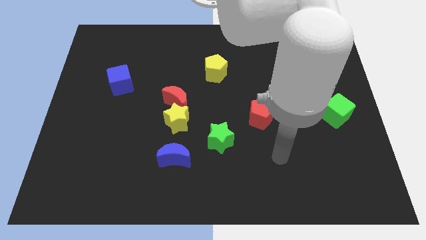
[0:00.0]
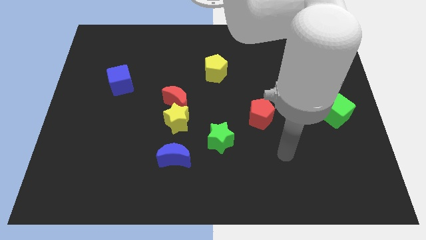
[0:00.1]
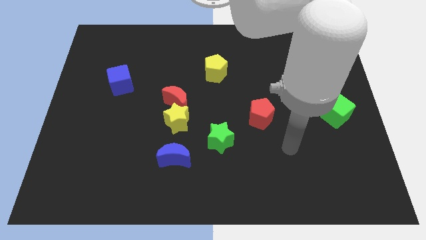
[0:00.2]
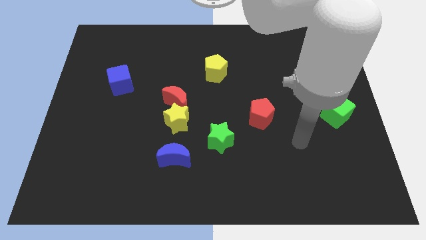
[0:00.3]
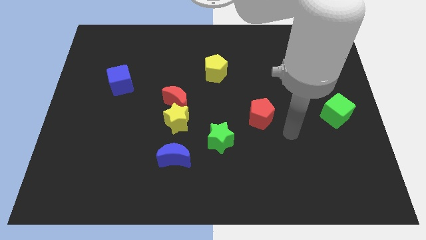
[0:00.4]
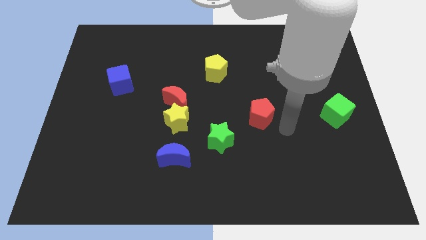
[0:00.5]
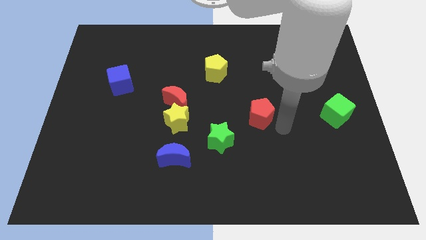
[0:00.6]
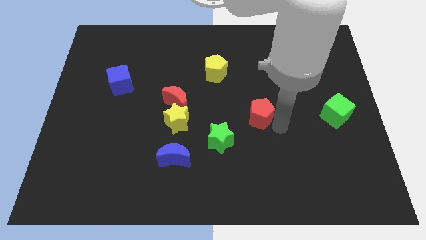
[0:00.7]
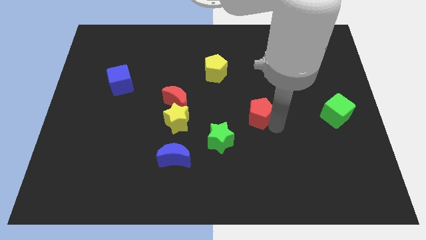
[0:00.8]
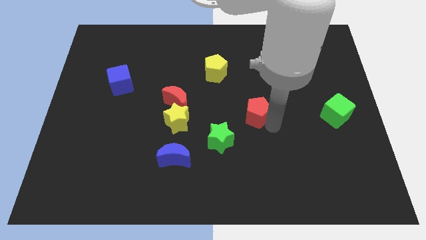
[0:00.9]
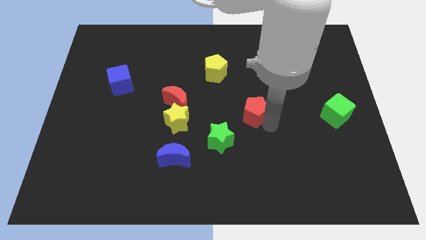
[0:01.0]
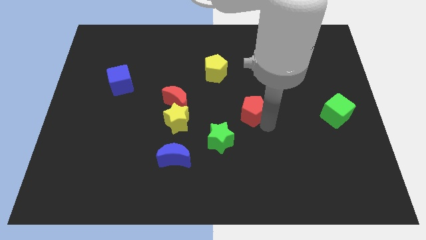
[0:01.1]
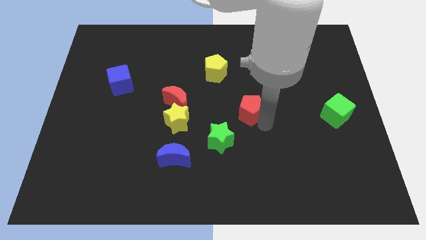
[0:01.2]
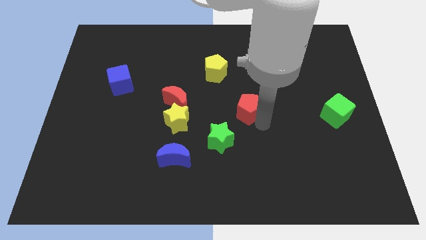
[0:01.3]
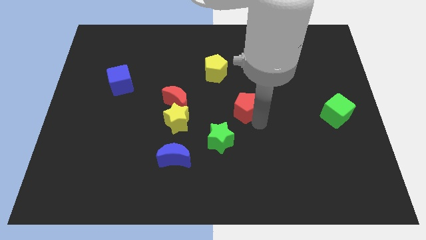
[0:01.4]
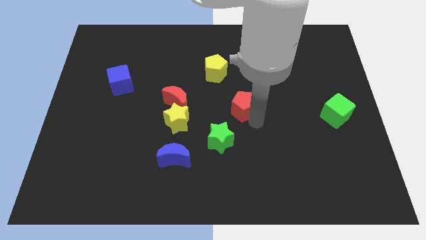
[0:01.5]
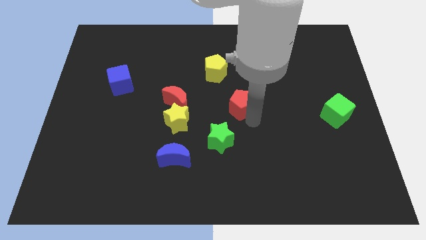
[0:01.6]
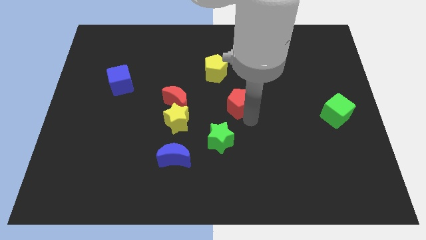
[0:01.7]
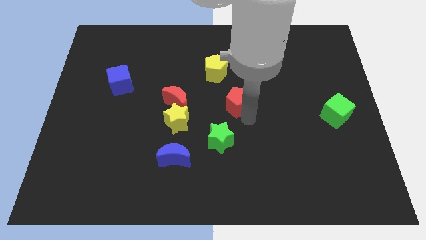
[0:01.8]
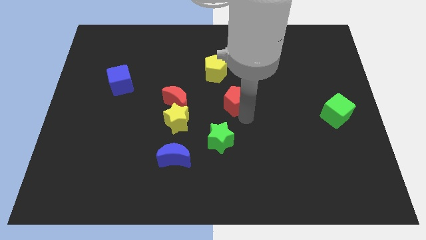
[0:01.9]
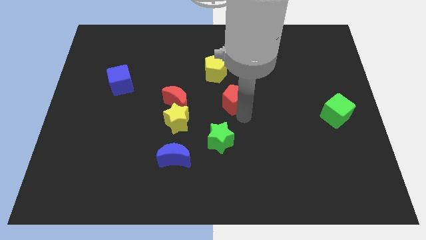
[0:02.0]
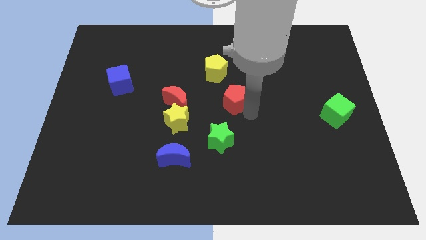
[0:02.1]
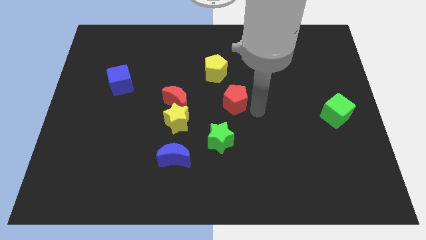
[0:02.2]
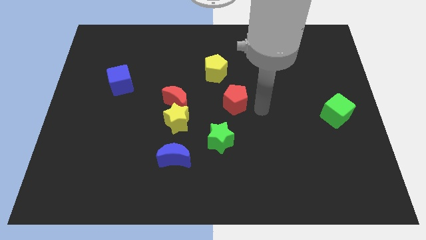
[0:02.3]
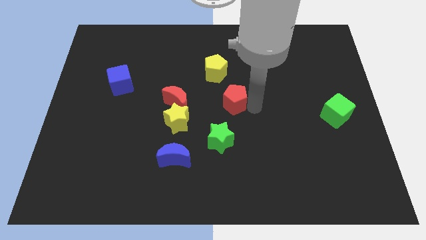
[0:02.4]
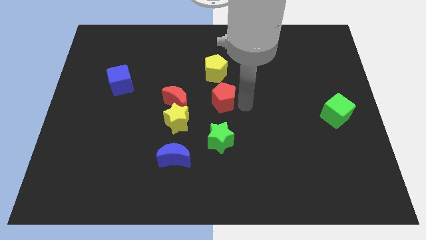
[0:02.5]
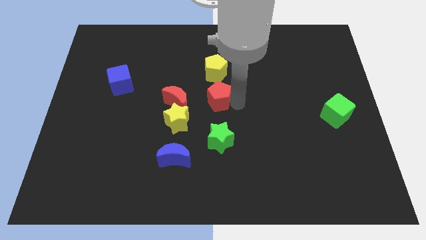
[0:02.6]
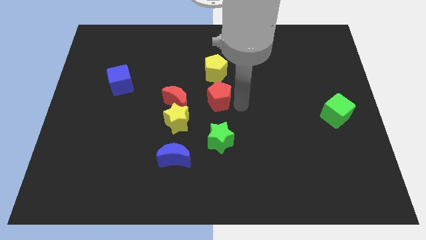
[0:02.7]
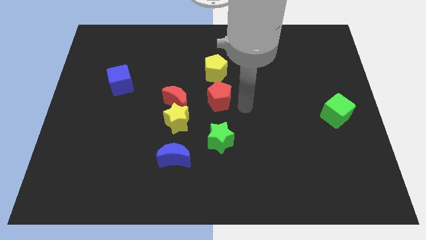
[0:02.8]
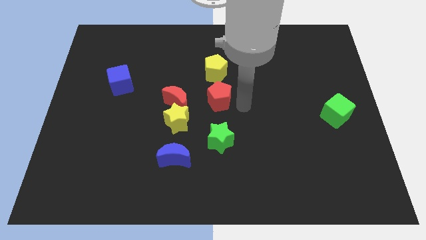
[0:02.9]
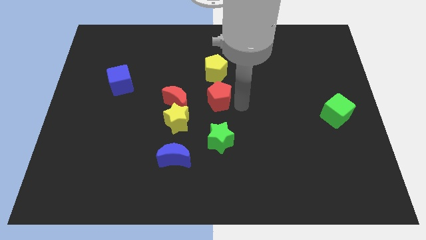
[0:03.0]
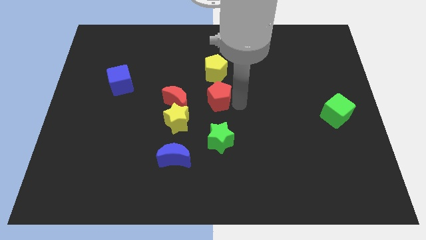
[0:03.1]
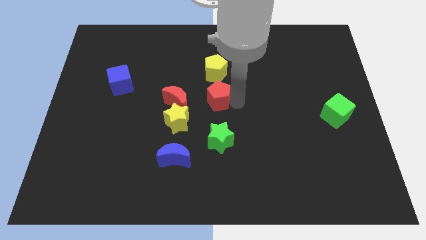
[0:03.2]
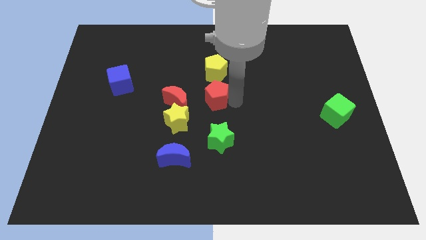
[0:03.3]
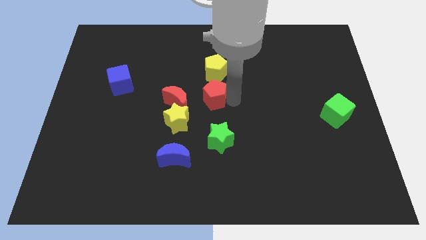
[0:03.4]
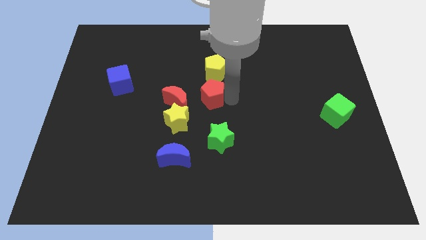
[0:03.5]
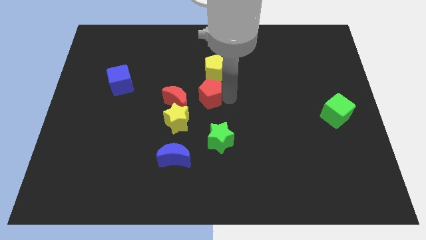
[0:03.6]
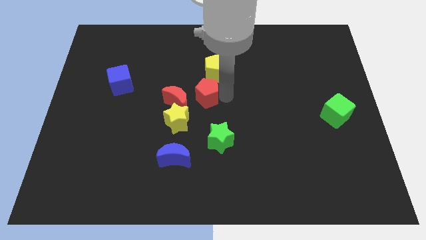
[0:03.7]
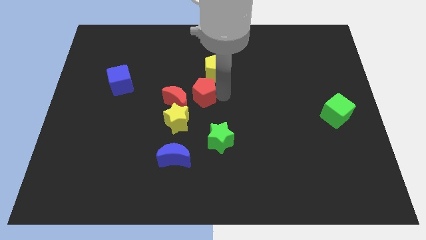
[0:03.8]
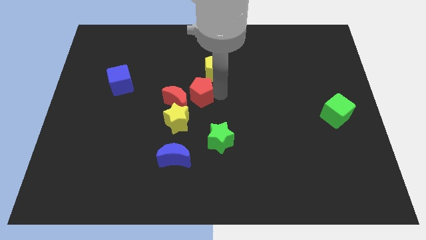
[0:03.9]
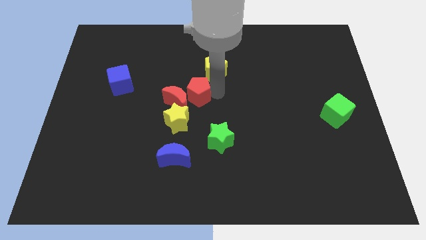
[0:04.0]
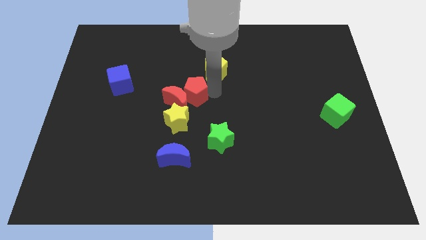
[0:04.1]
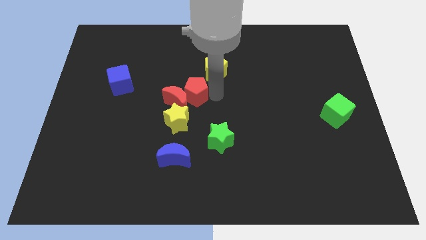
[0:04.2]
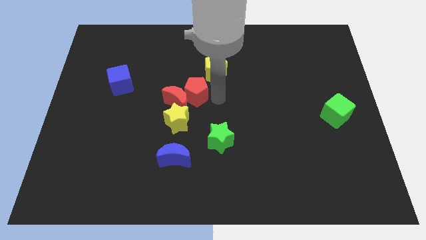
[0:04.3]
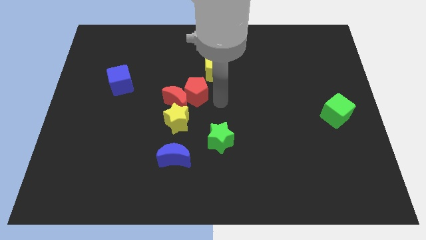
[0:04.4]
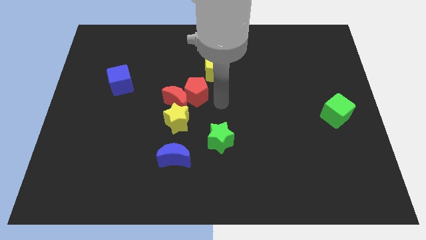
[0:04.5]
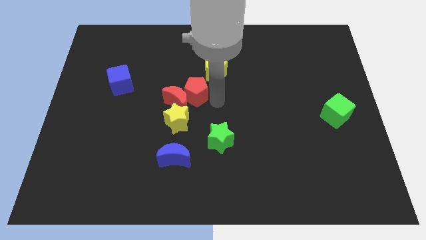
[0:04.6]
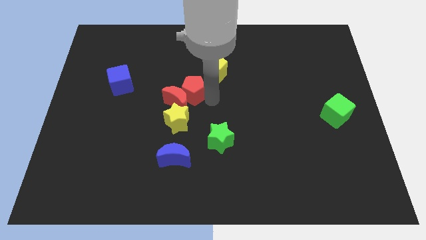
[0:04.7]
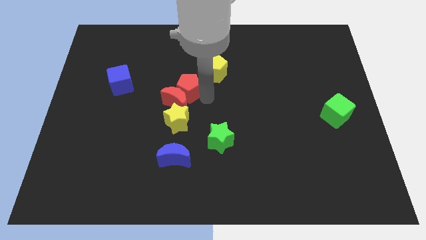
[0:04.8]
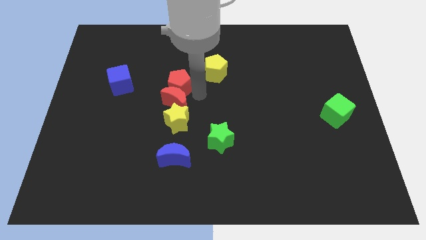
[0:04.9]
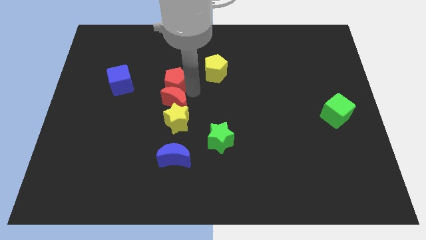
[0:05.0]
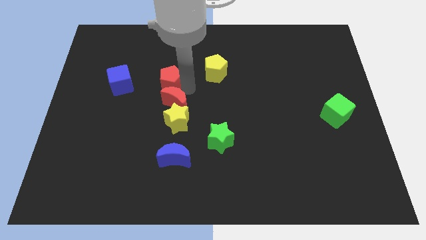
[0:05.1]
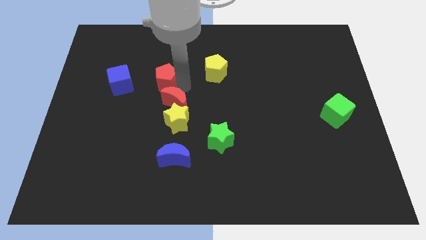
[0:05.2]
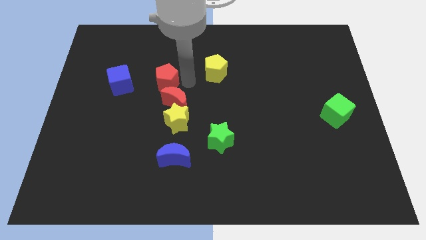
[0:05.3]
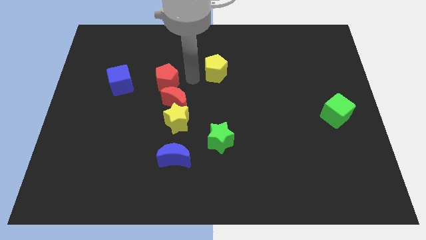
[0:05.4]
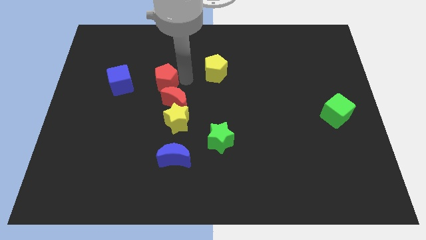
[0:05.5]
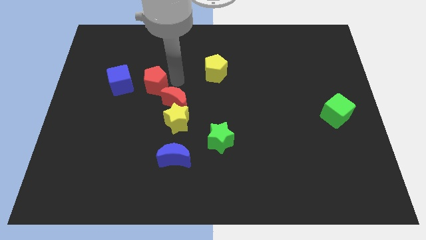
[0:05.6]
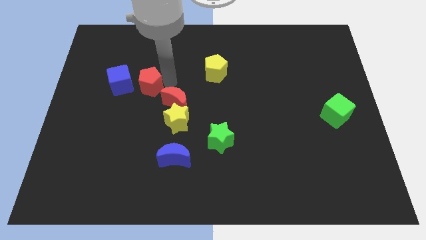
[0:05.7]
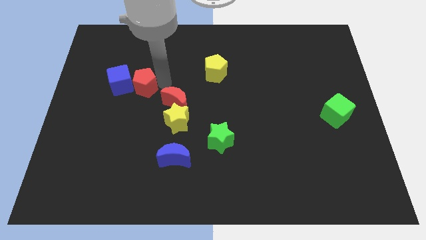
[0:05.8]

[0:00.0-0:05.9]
put the red pentagon to the blue cube

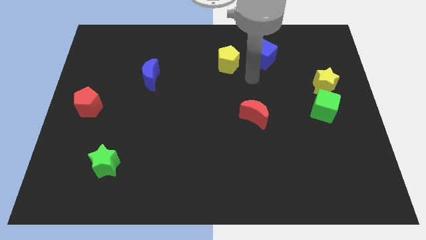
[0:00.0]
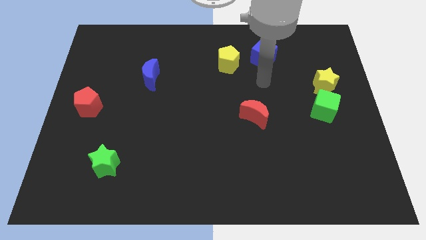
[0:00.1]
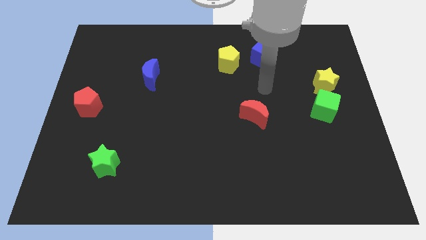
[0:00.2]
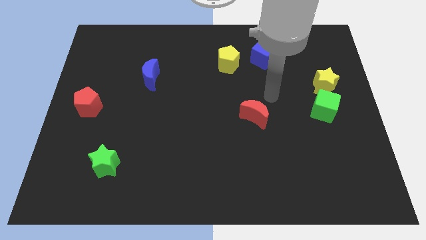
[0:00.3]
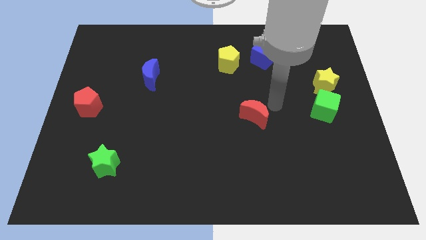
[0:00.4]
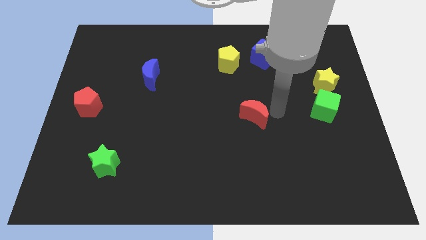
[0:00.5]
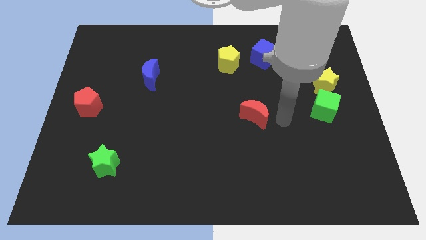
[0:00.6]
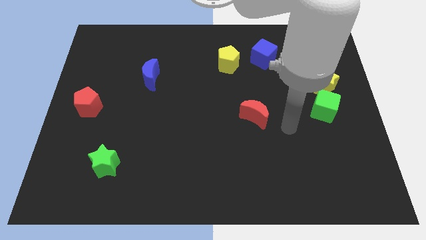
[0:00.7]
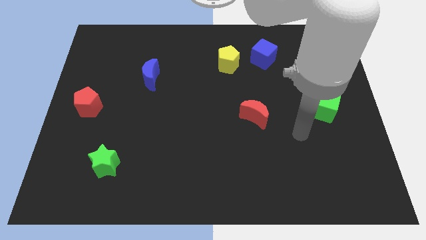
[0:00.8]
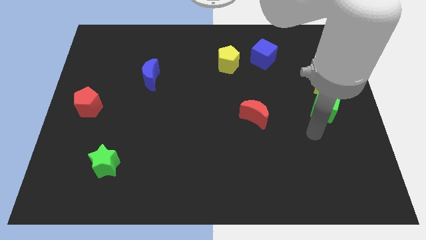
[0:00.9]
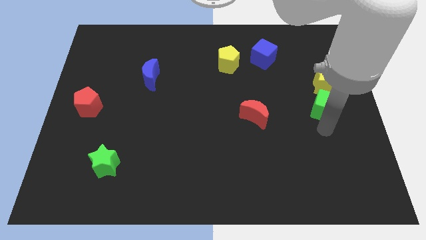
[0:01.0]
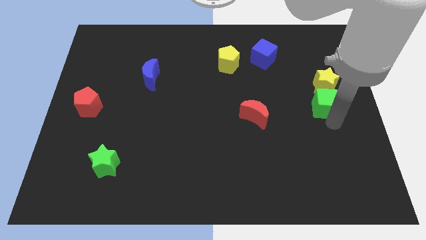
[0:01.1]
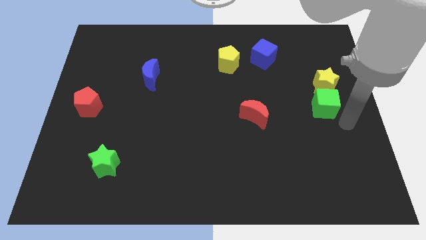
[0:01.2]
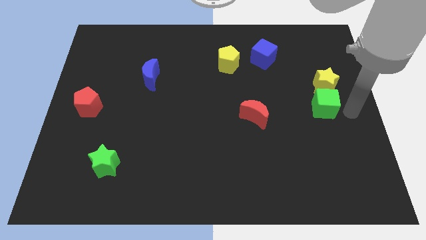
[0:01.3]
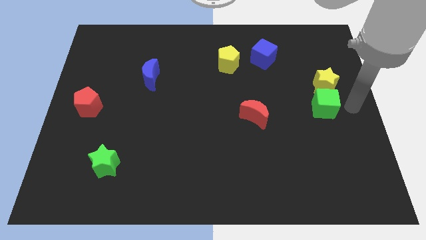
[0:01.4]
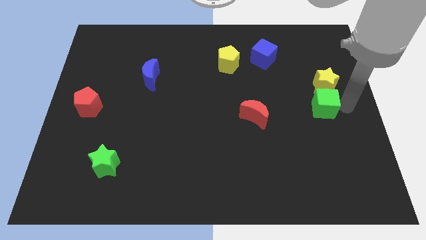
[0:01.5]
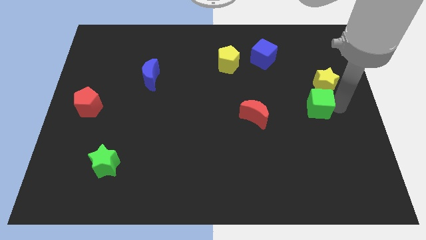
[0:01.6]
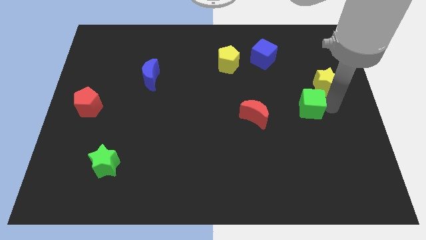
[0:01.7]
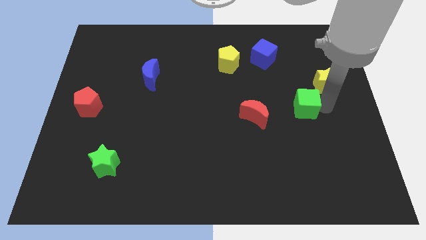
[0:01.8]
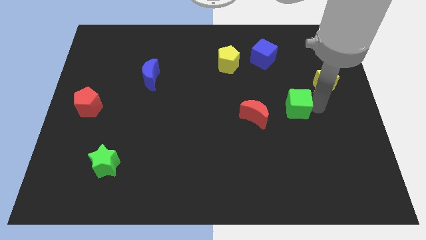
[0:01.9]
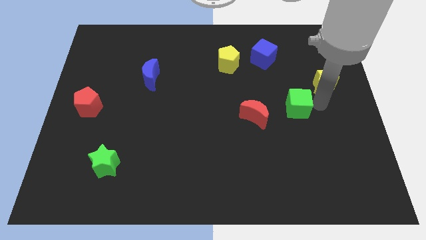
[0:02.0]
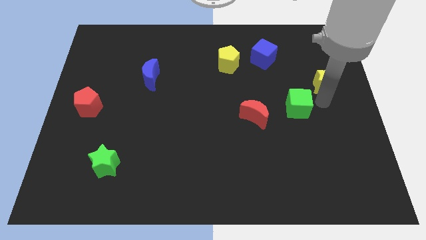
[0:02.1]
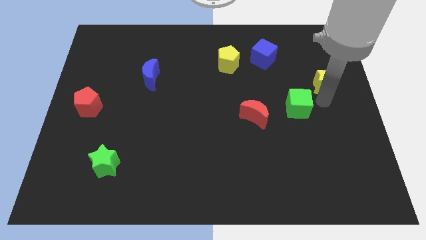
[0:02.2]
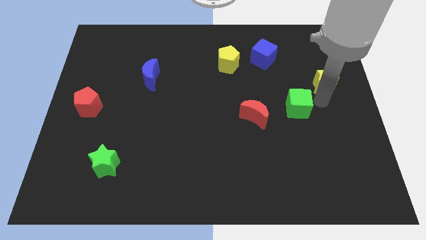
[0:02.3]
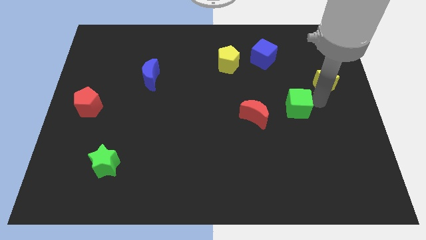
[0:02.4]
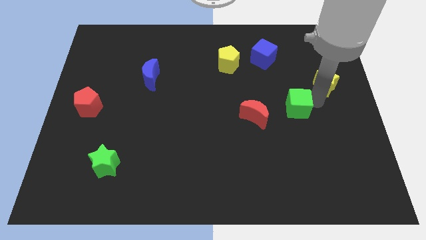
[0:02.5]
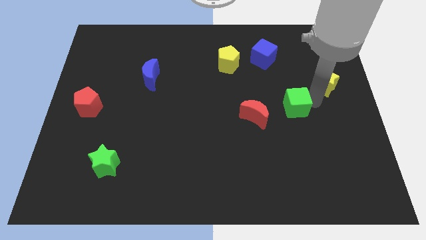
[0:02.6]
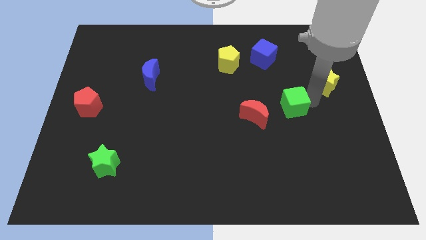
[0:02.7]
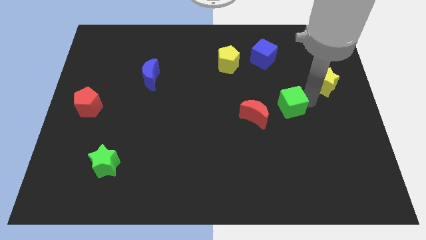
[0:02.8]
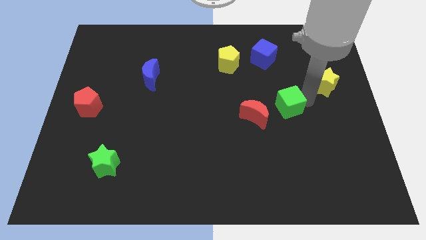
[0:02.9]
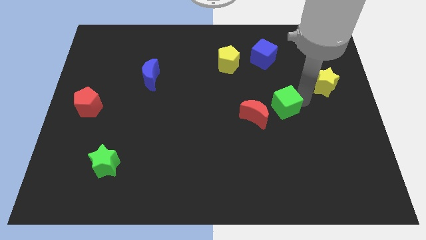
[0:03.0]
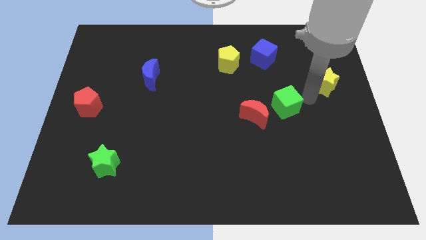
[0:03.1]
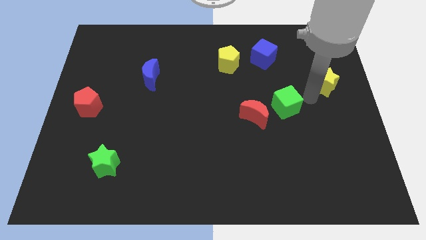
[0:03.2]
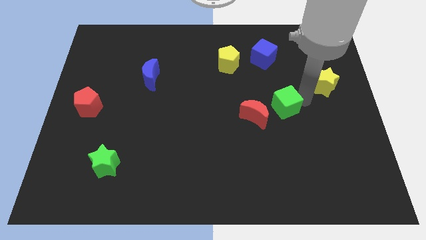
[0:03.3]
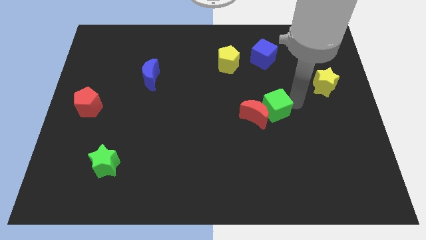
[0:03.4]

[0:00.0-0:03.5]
slide the green cube close to the red moon
